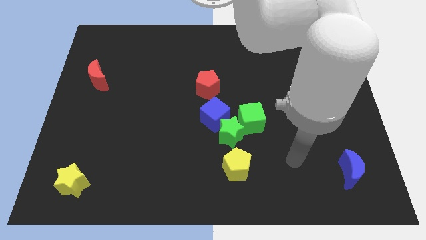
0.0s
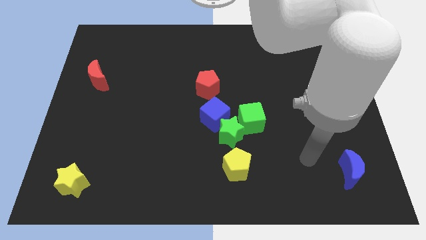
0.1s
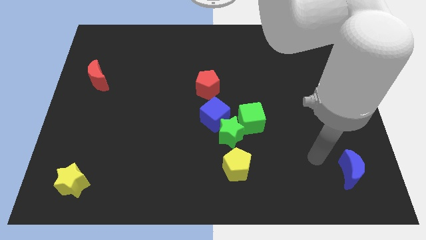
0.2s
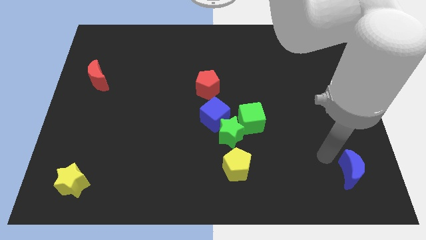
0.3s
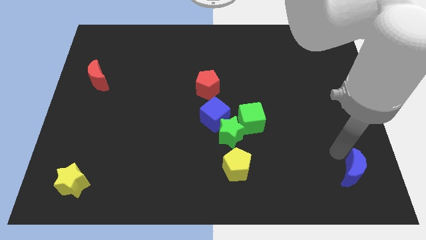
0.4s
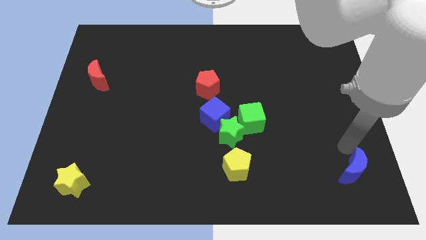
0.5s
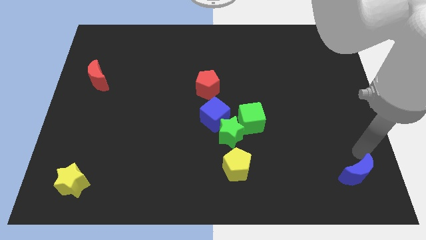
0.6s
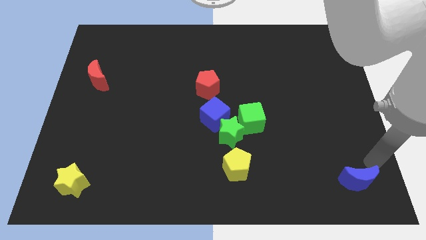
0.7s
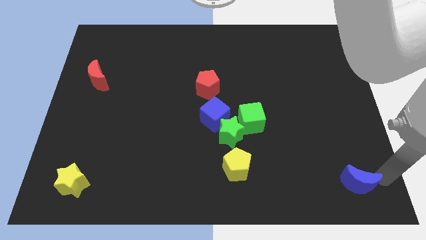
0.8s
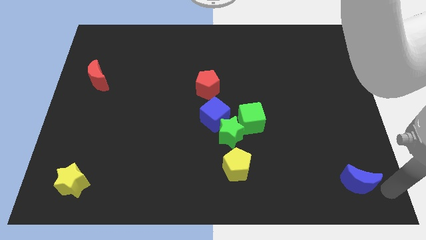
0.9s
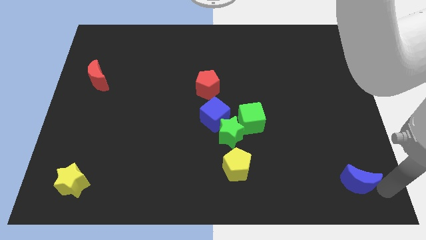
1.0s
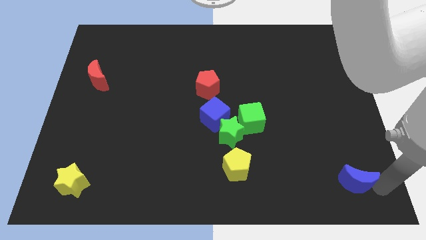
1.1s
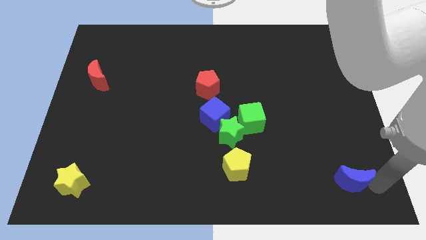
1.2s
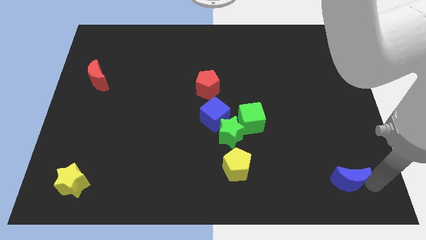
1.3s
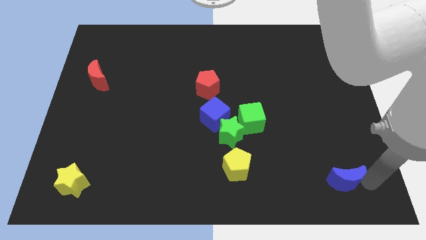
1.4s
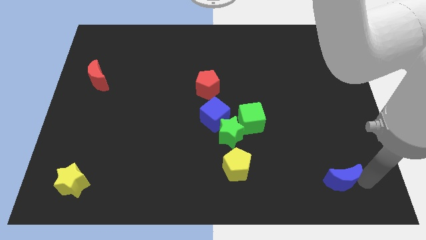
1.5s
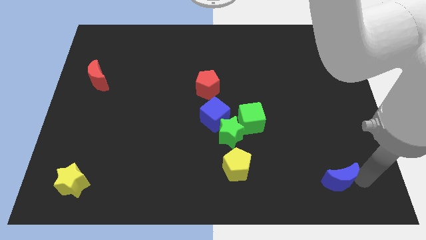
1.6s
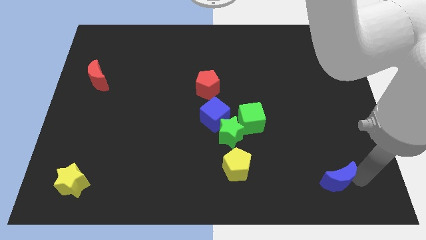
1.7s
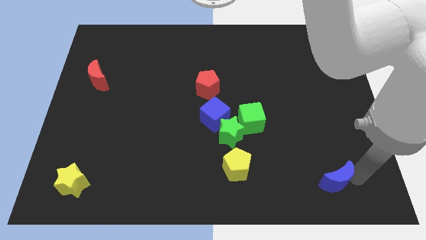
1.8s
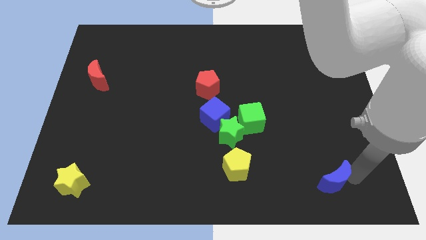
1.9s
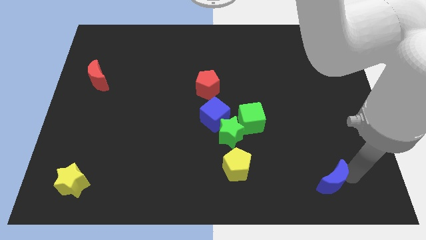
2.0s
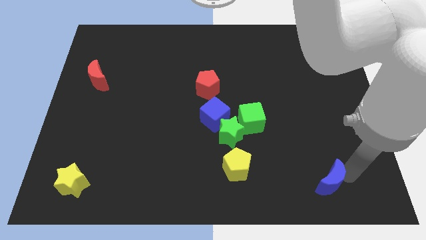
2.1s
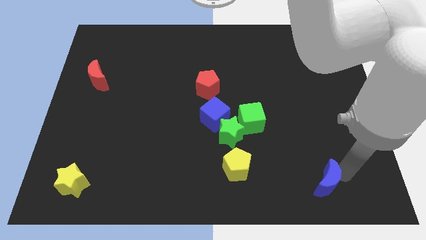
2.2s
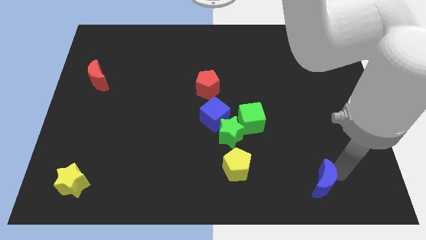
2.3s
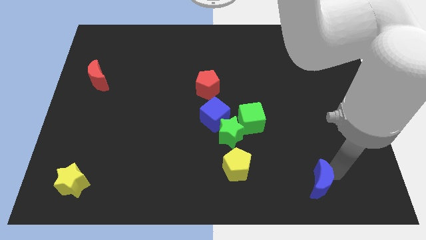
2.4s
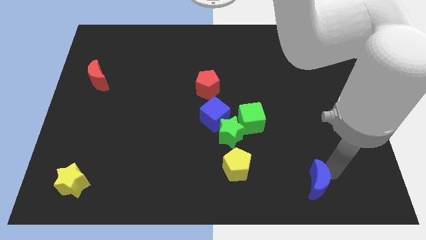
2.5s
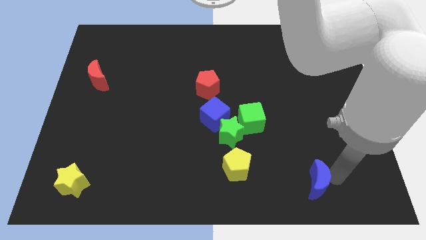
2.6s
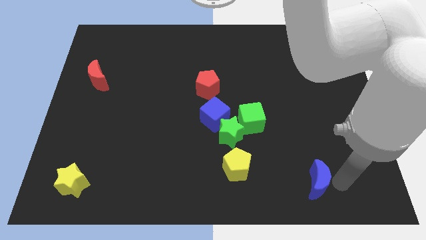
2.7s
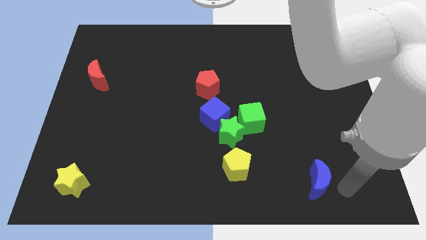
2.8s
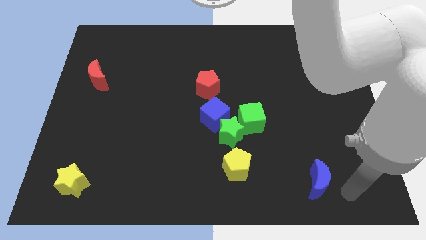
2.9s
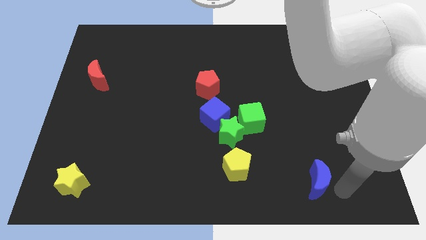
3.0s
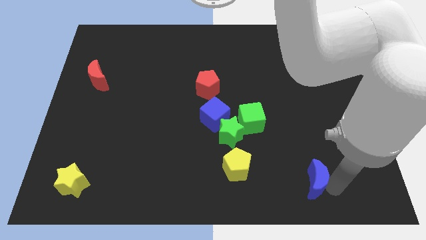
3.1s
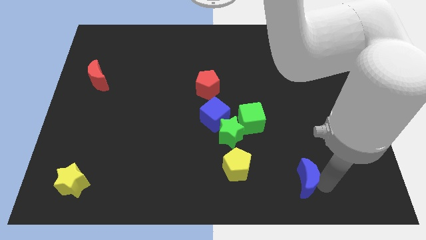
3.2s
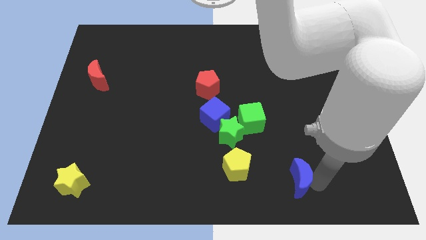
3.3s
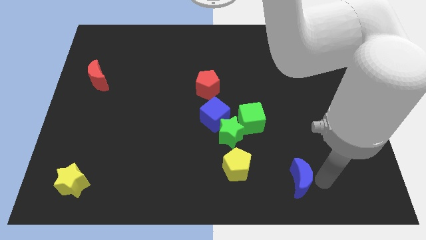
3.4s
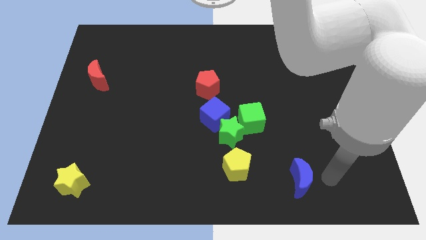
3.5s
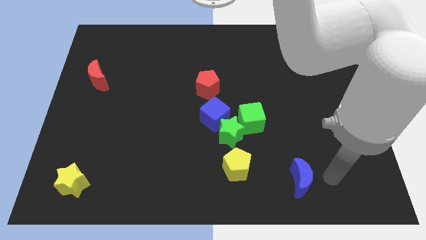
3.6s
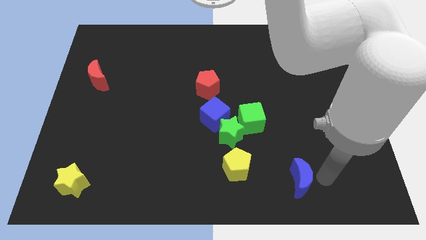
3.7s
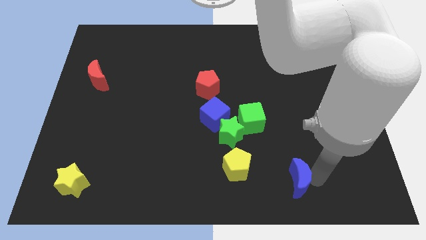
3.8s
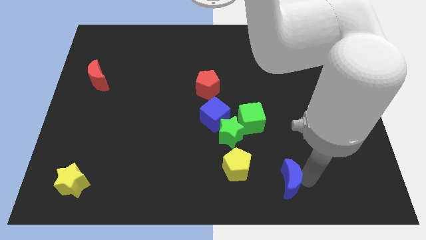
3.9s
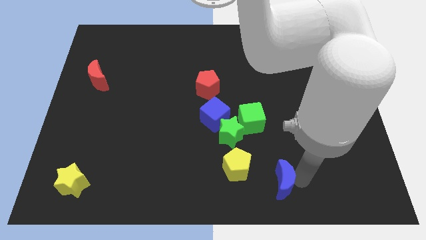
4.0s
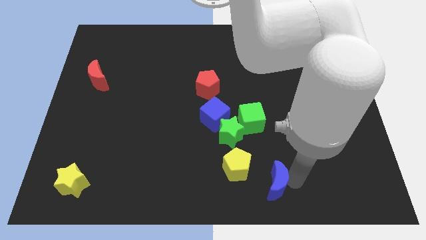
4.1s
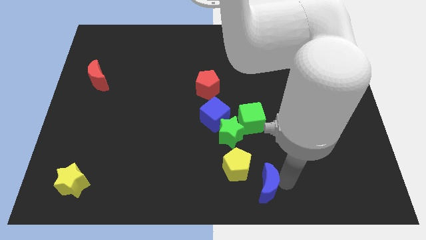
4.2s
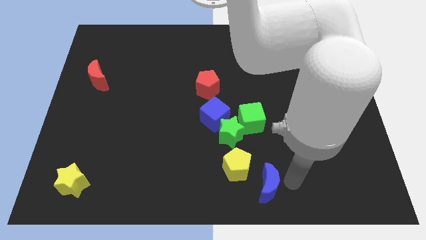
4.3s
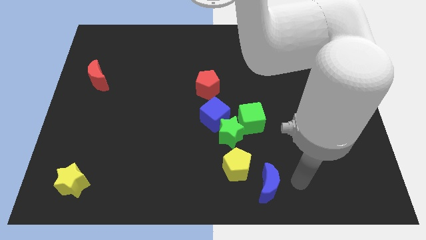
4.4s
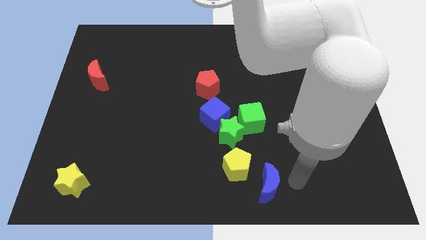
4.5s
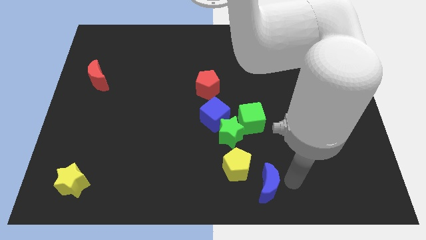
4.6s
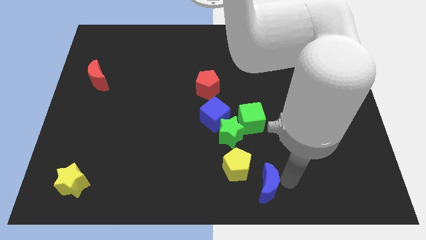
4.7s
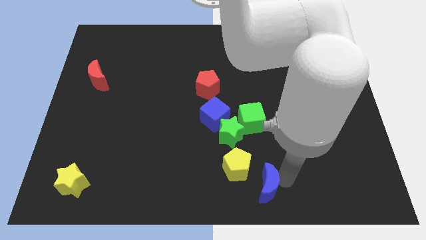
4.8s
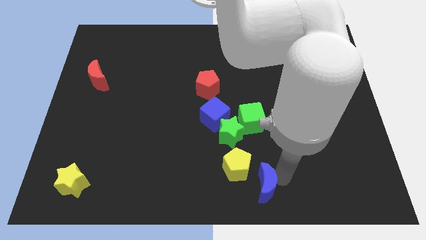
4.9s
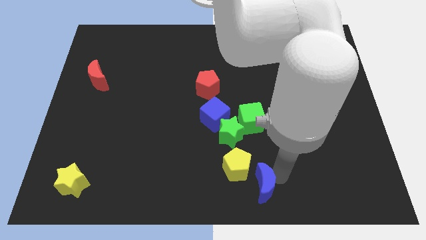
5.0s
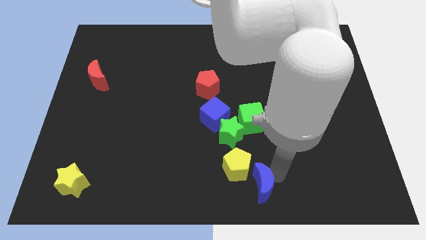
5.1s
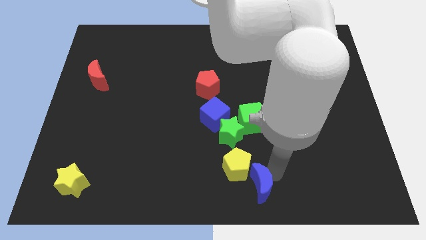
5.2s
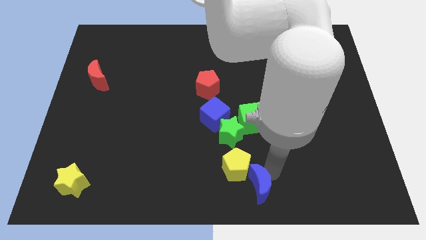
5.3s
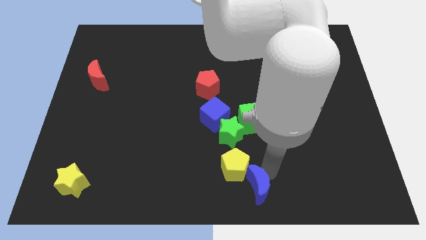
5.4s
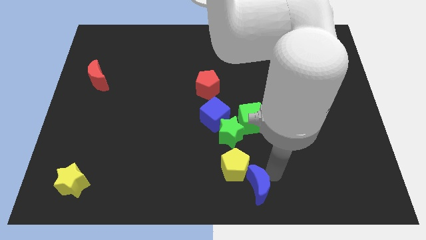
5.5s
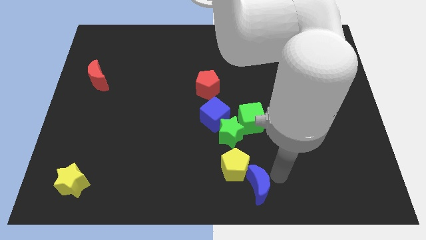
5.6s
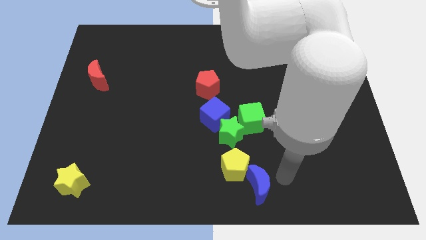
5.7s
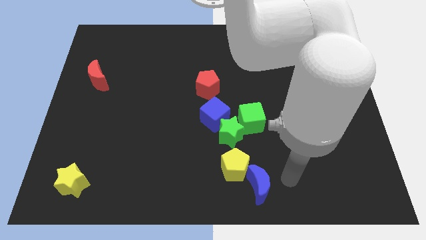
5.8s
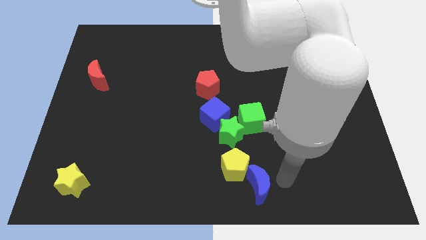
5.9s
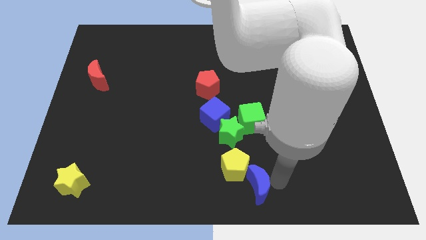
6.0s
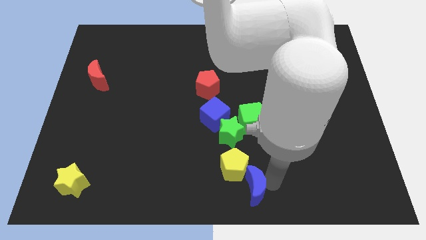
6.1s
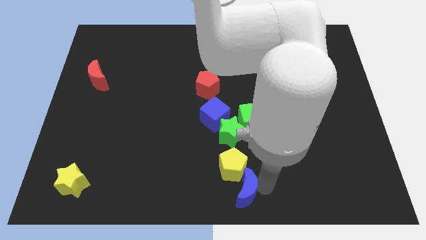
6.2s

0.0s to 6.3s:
push the blue moon to the left

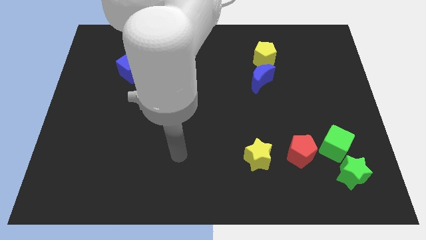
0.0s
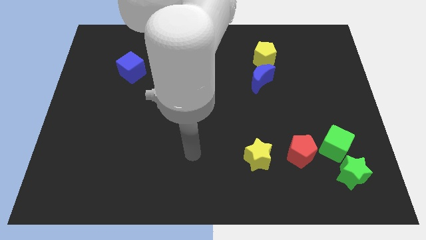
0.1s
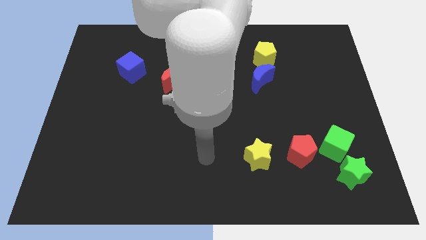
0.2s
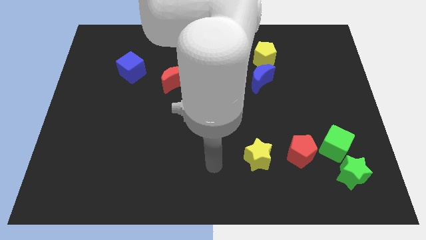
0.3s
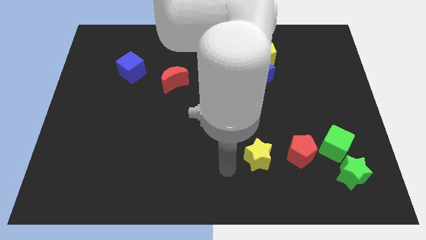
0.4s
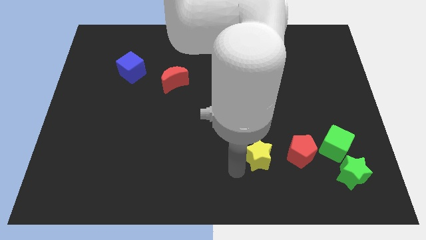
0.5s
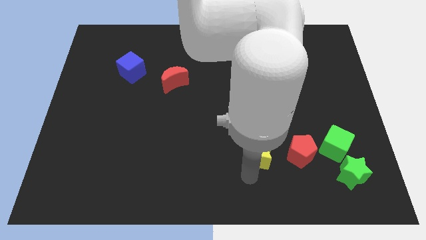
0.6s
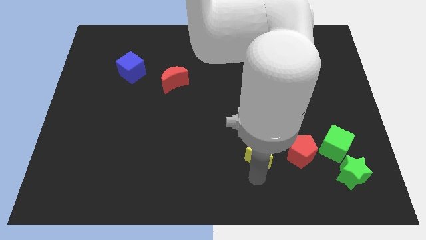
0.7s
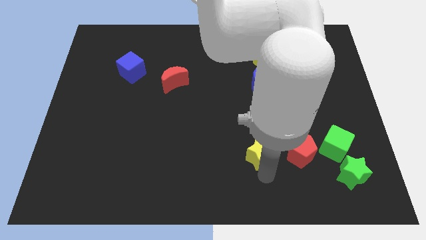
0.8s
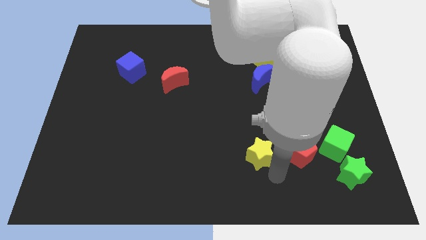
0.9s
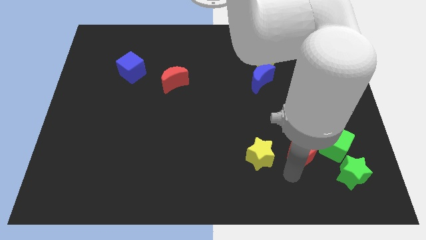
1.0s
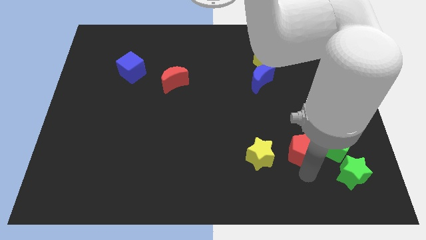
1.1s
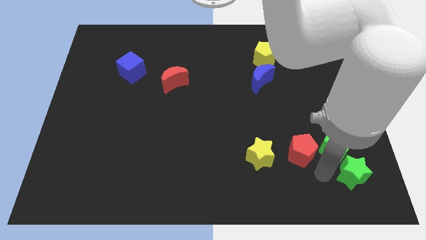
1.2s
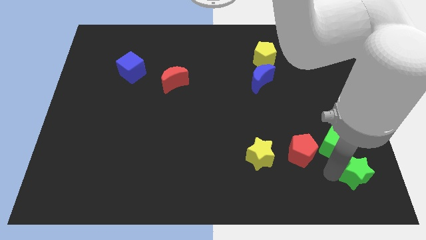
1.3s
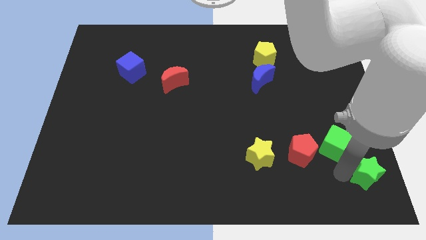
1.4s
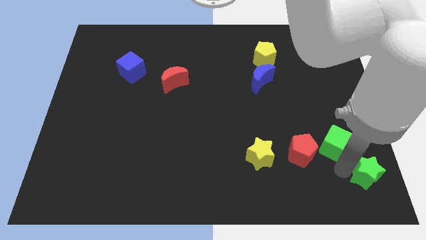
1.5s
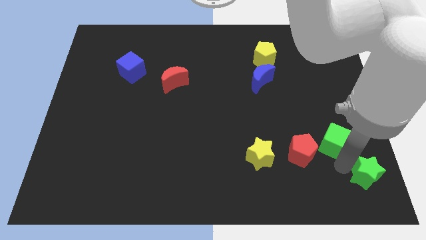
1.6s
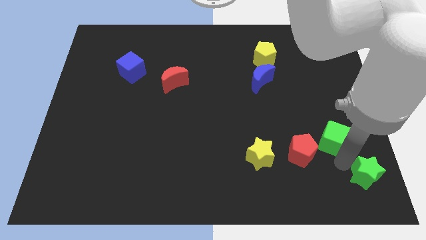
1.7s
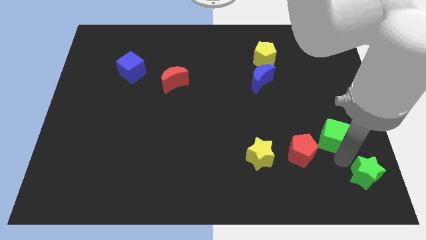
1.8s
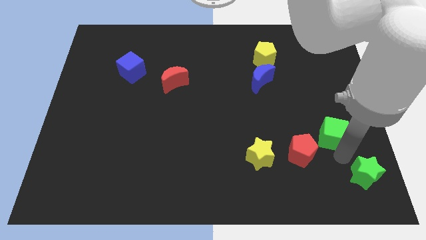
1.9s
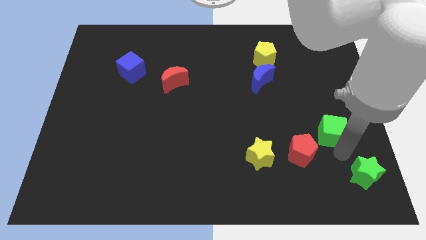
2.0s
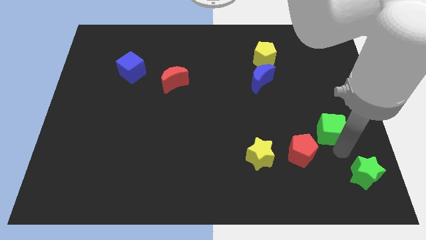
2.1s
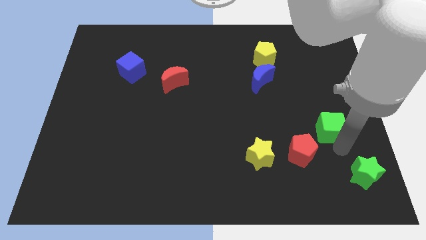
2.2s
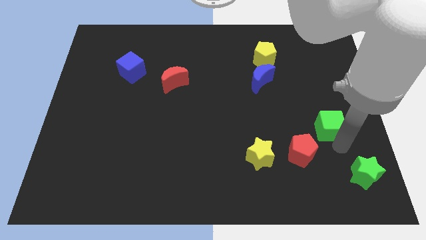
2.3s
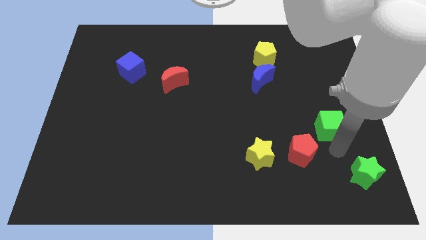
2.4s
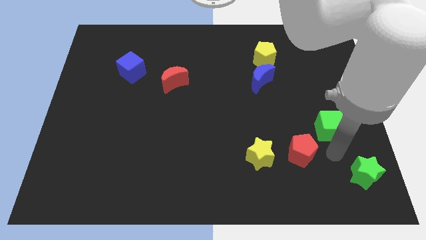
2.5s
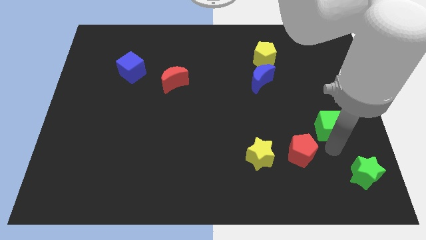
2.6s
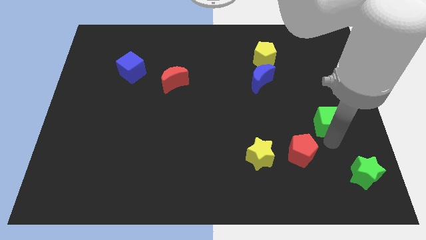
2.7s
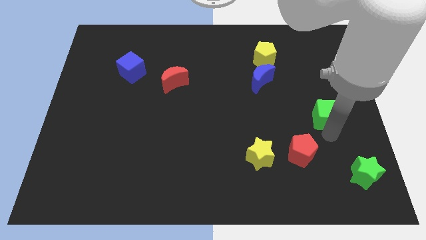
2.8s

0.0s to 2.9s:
push the green cube slightly up
